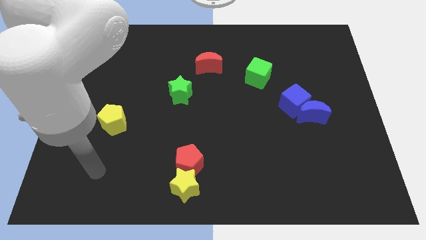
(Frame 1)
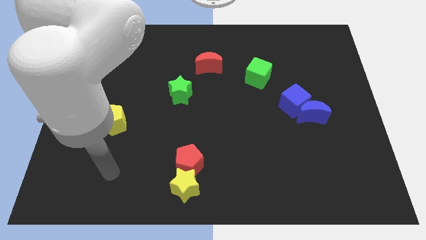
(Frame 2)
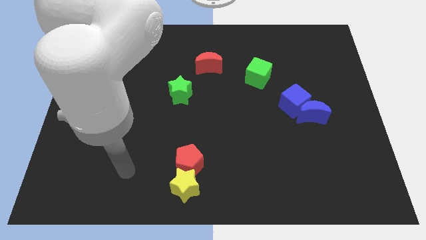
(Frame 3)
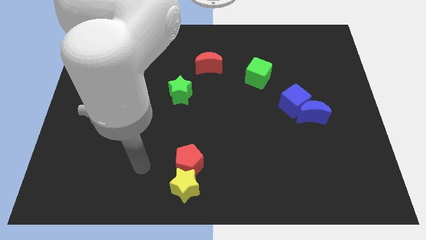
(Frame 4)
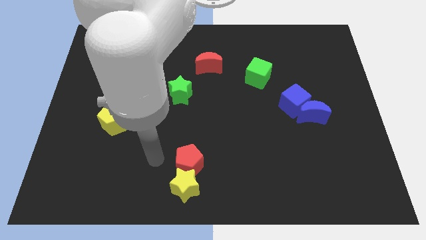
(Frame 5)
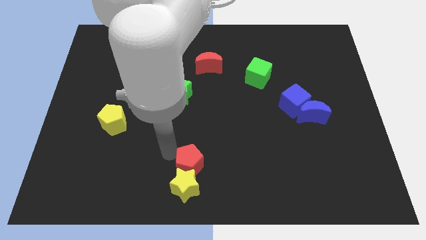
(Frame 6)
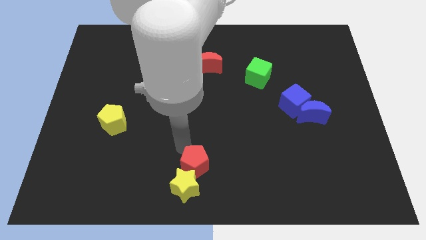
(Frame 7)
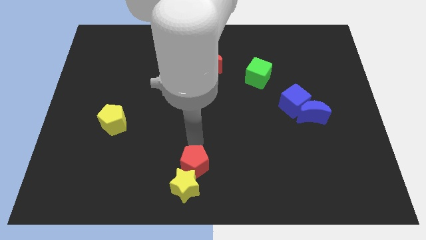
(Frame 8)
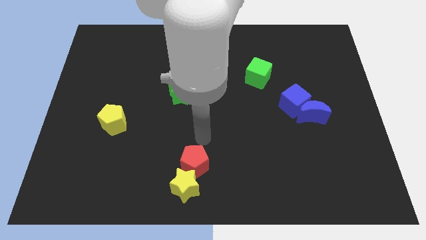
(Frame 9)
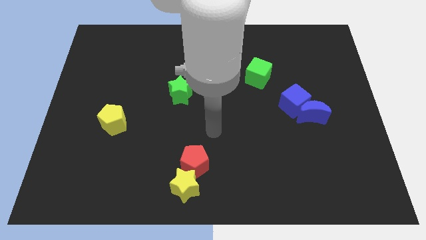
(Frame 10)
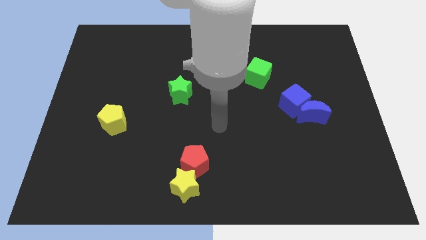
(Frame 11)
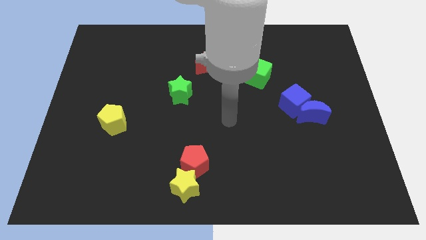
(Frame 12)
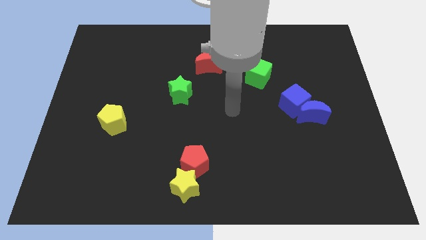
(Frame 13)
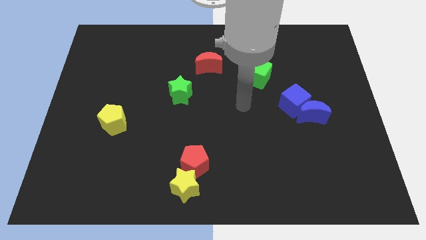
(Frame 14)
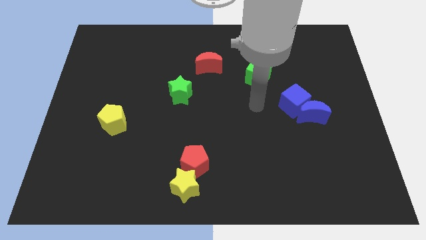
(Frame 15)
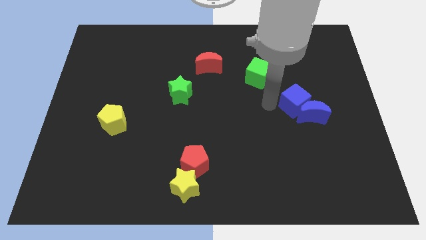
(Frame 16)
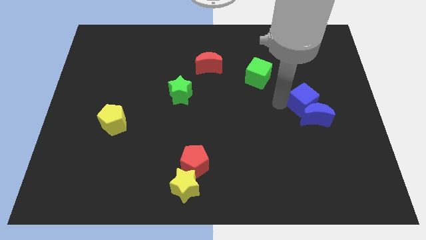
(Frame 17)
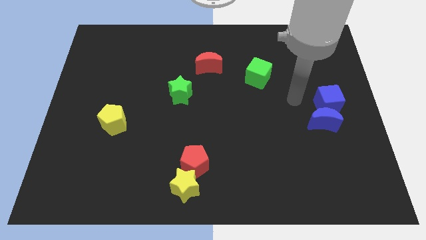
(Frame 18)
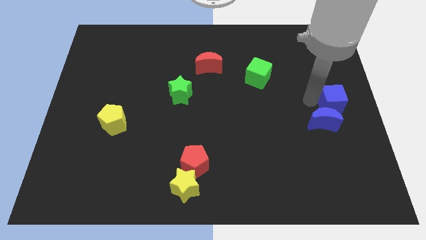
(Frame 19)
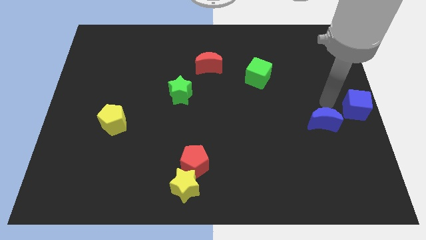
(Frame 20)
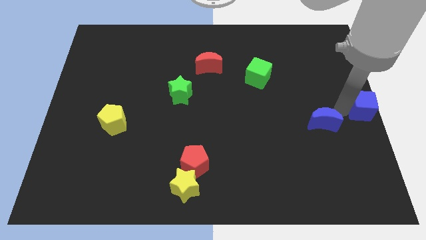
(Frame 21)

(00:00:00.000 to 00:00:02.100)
pull the blue moon apart from the blue cube

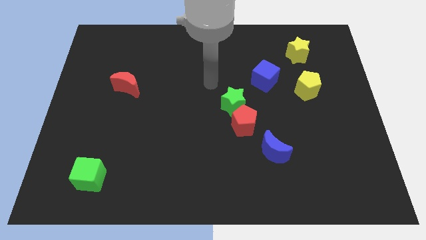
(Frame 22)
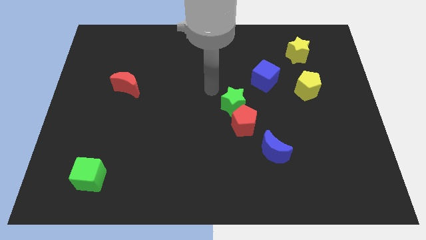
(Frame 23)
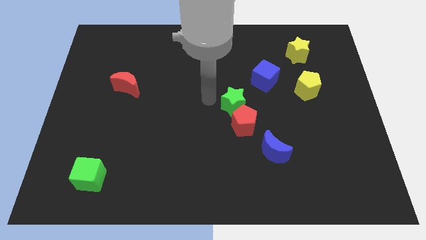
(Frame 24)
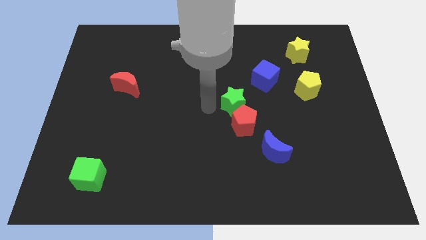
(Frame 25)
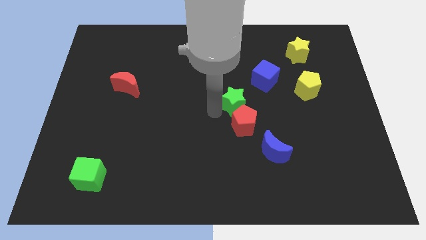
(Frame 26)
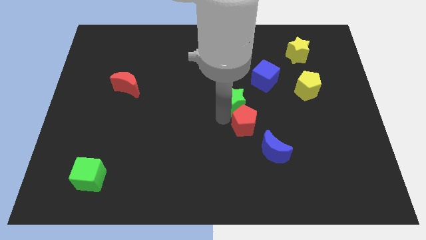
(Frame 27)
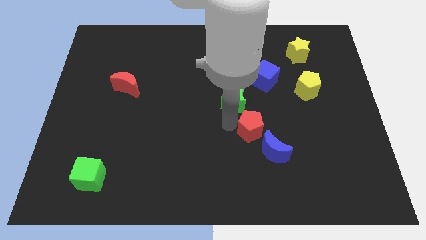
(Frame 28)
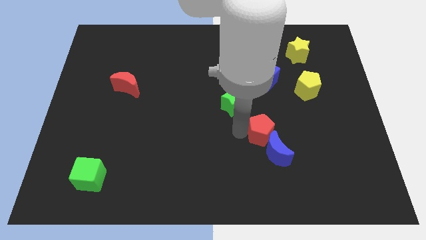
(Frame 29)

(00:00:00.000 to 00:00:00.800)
move the green star away from the red pentagon

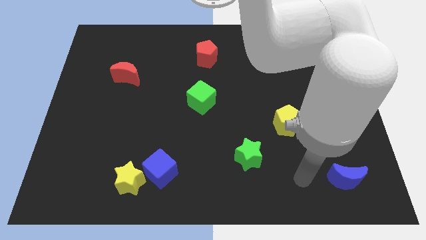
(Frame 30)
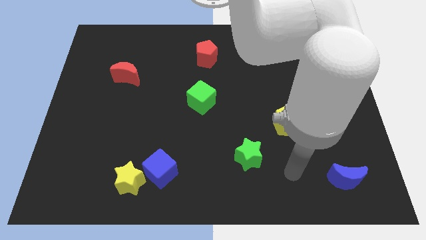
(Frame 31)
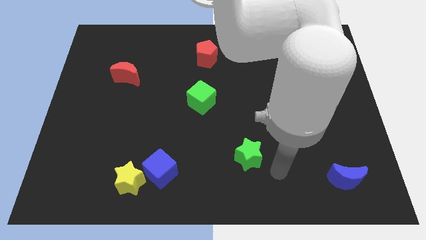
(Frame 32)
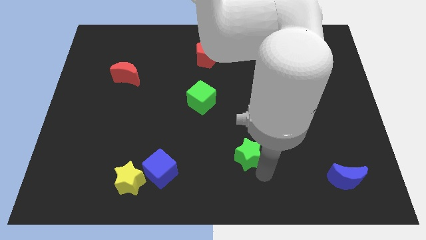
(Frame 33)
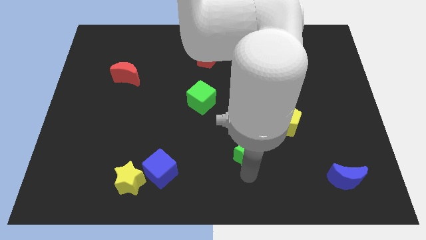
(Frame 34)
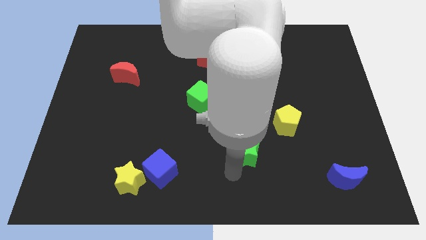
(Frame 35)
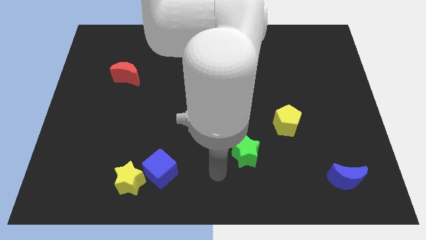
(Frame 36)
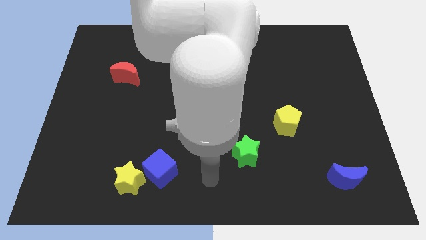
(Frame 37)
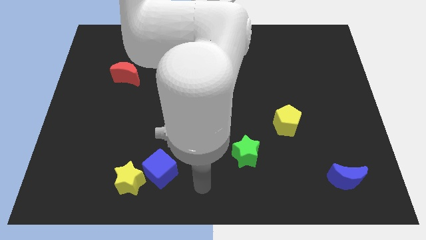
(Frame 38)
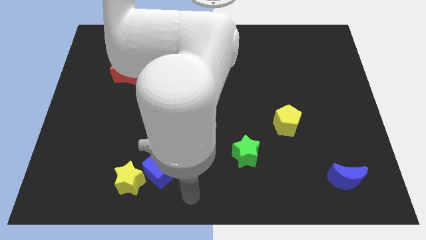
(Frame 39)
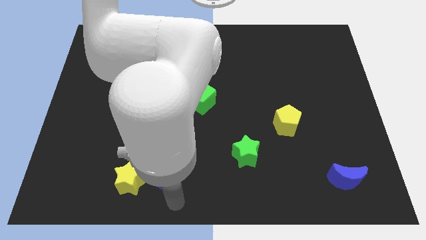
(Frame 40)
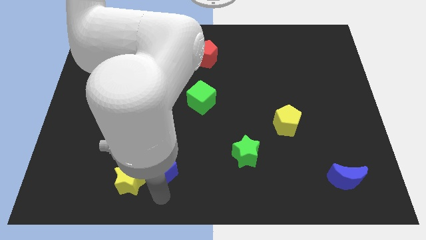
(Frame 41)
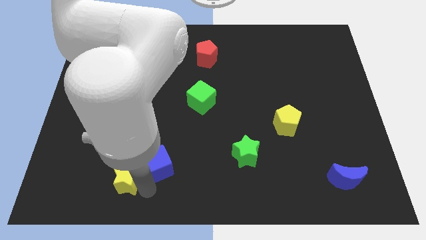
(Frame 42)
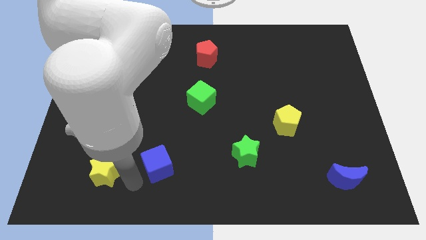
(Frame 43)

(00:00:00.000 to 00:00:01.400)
move the blue cube away from the yellow star

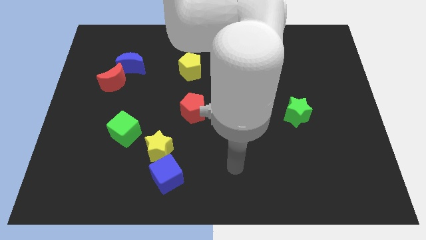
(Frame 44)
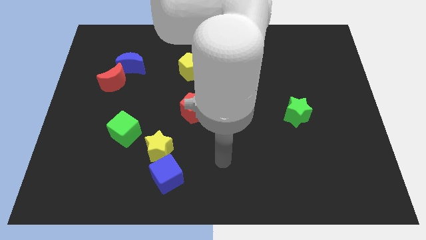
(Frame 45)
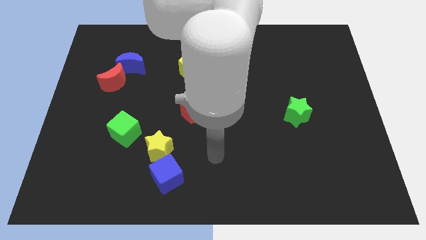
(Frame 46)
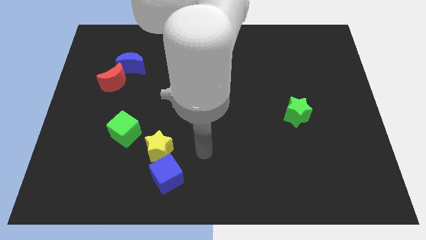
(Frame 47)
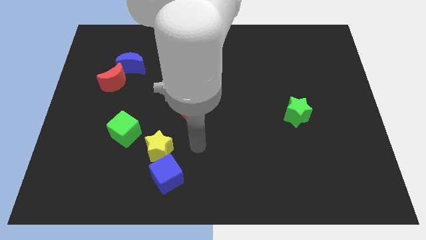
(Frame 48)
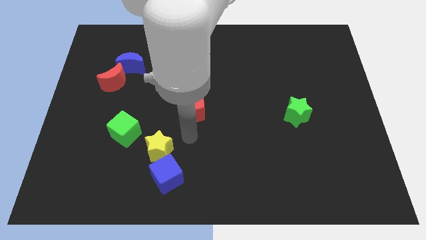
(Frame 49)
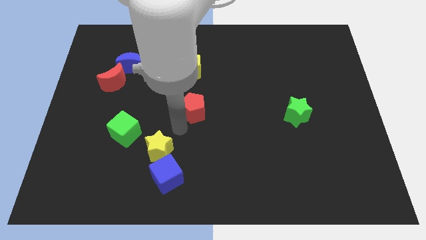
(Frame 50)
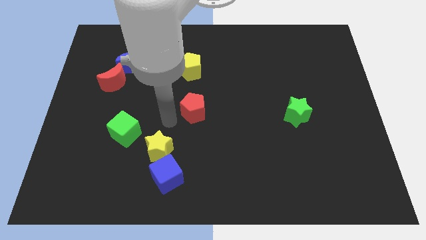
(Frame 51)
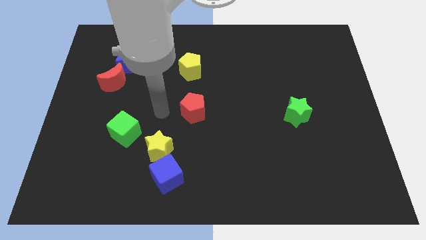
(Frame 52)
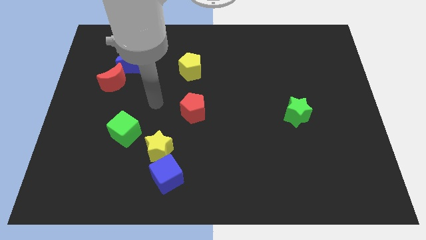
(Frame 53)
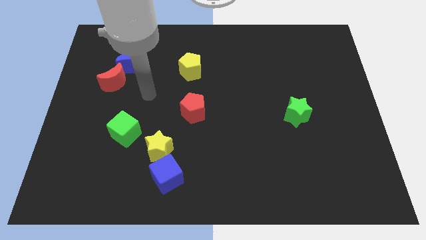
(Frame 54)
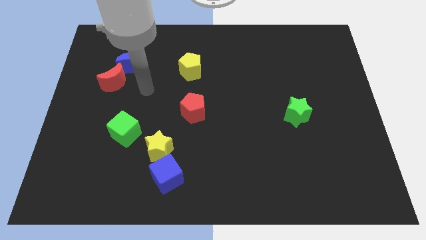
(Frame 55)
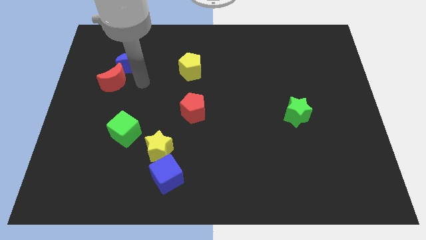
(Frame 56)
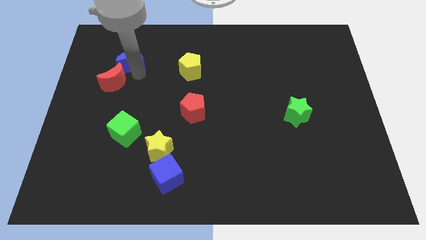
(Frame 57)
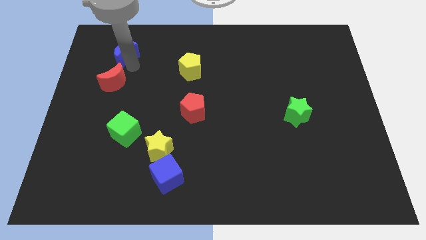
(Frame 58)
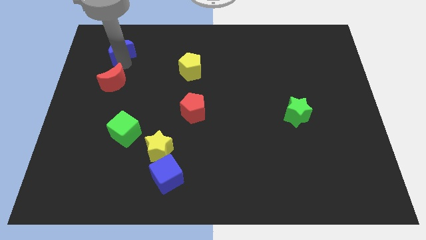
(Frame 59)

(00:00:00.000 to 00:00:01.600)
move the red moon away from the blue moon

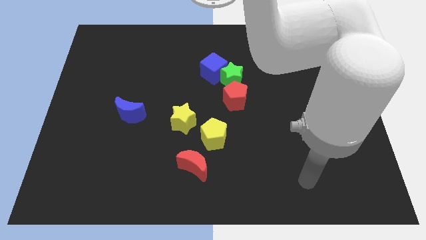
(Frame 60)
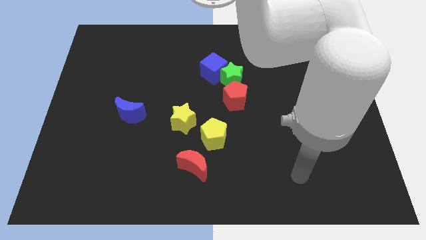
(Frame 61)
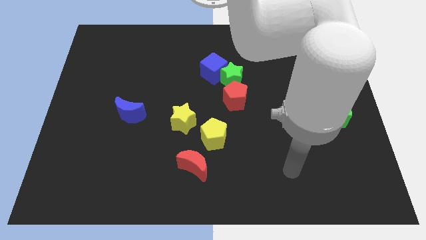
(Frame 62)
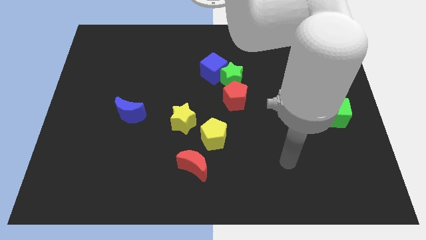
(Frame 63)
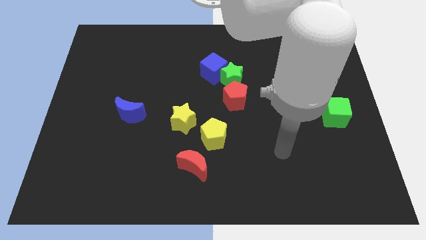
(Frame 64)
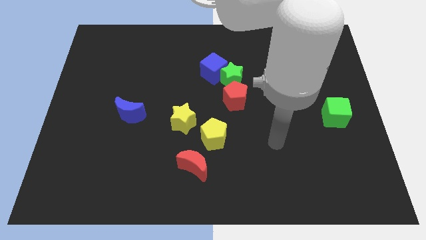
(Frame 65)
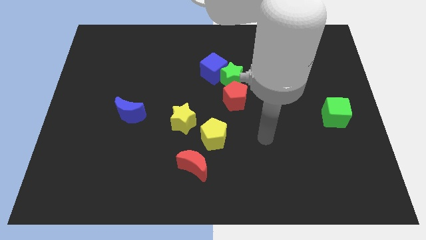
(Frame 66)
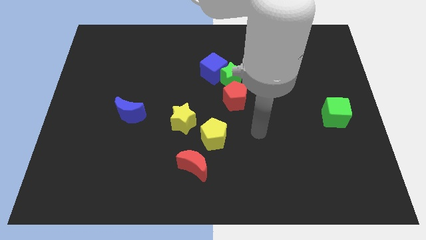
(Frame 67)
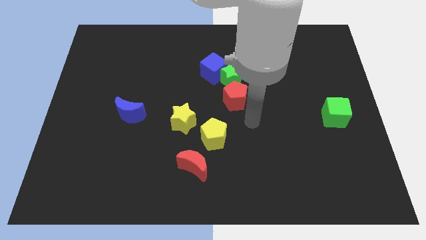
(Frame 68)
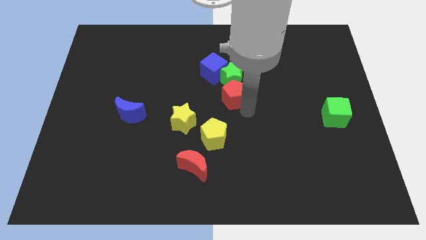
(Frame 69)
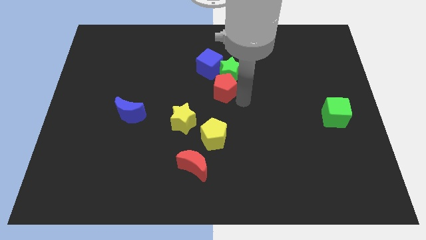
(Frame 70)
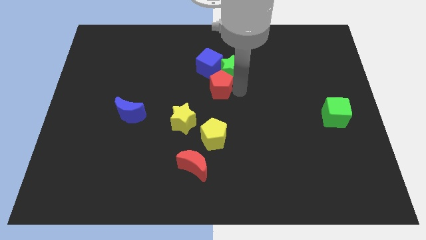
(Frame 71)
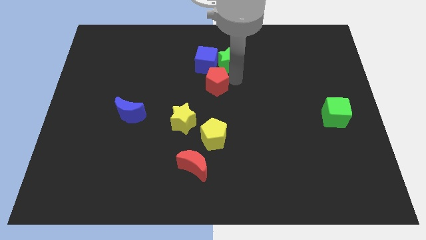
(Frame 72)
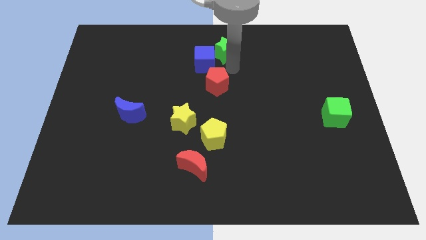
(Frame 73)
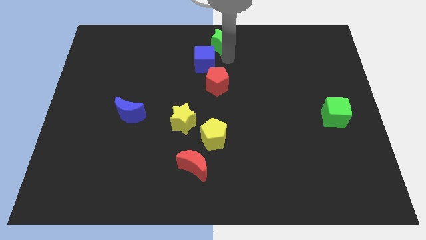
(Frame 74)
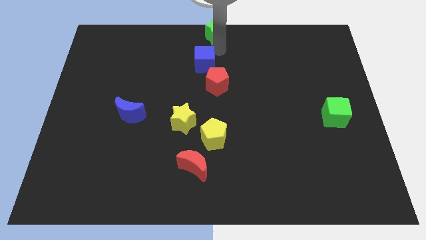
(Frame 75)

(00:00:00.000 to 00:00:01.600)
move the blue cube away from the green star

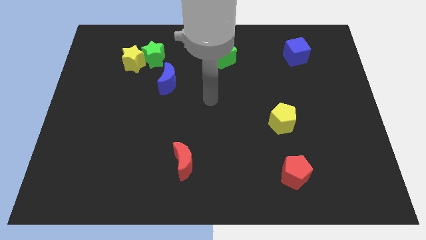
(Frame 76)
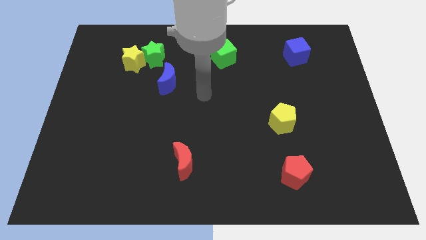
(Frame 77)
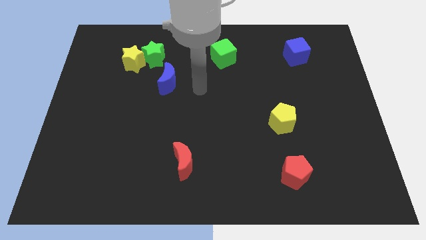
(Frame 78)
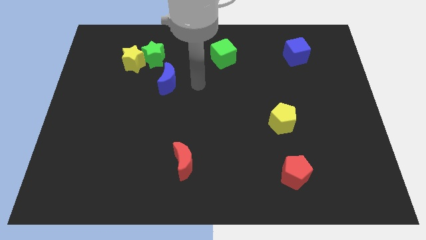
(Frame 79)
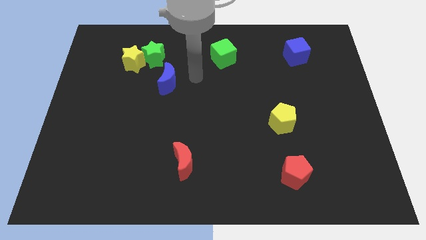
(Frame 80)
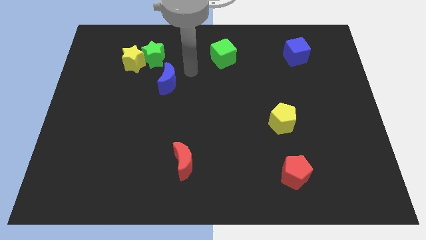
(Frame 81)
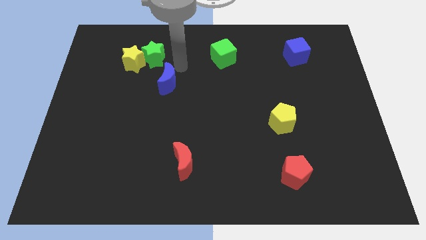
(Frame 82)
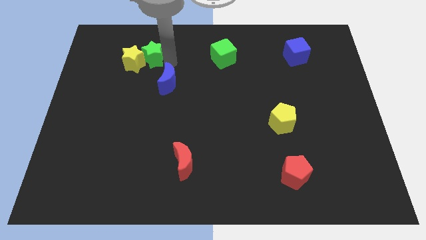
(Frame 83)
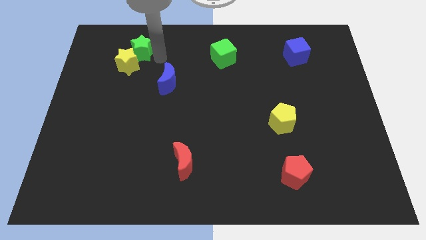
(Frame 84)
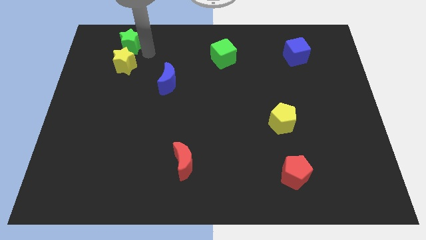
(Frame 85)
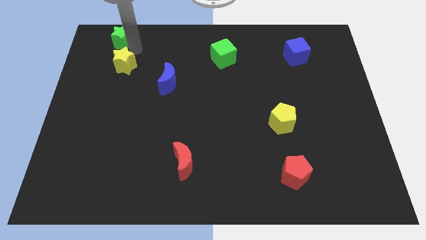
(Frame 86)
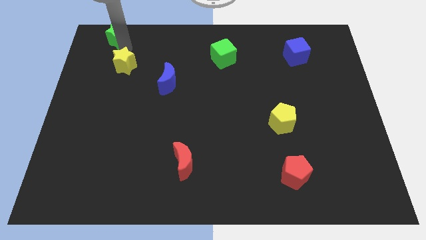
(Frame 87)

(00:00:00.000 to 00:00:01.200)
pull the yellow star apart from the green star

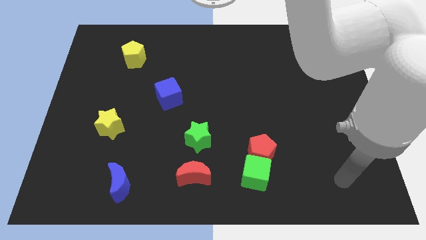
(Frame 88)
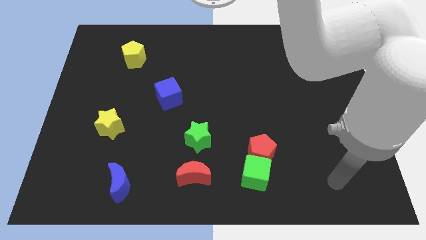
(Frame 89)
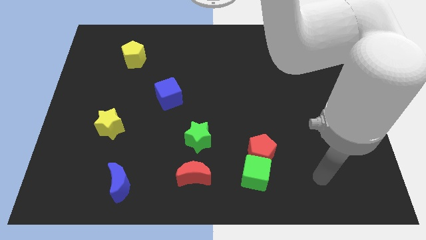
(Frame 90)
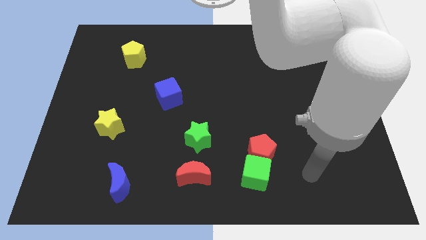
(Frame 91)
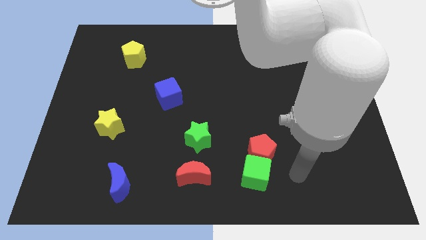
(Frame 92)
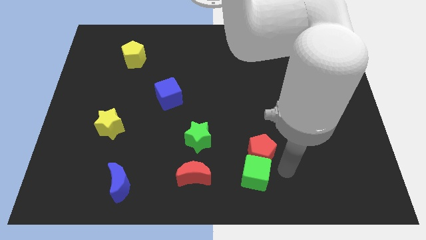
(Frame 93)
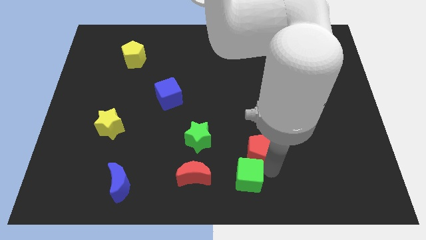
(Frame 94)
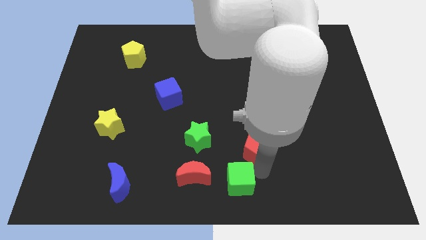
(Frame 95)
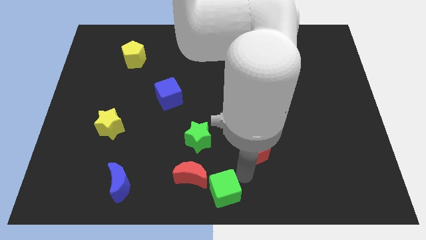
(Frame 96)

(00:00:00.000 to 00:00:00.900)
separate the red pentagon from the green cube
